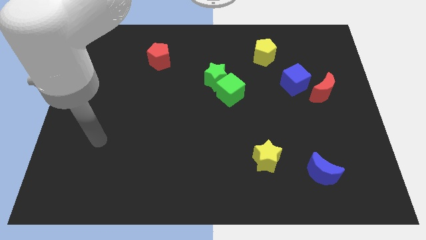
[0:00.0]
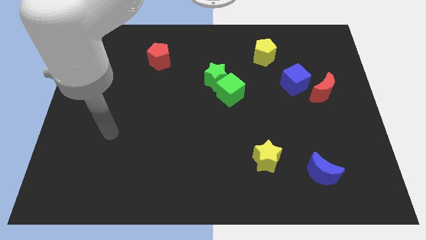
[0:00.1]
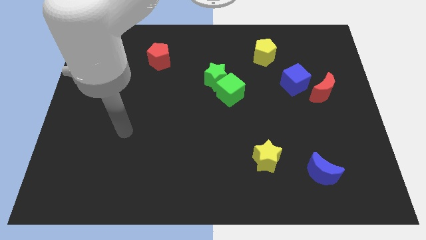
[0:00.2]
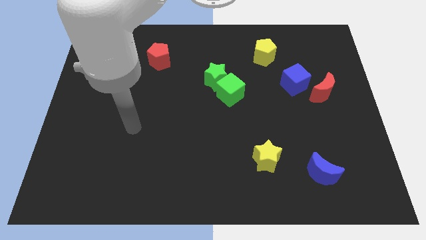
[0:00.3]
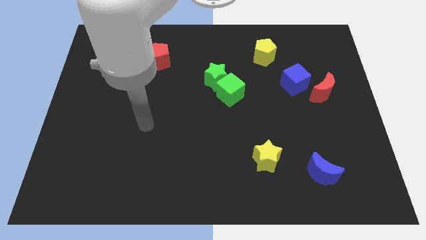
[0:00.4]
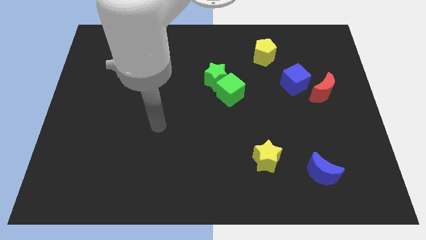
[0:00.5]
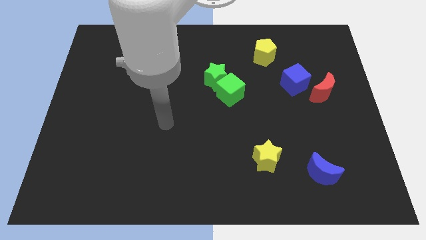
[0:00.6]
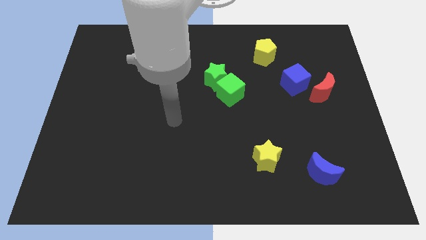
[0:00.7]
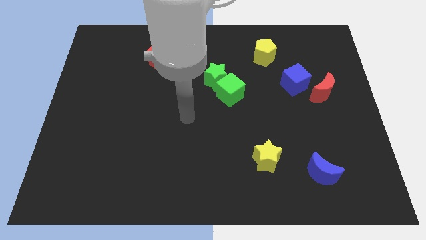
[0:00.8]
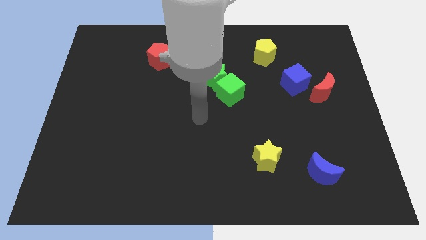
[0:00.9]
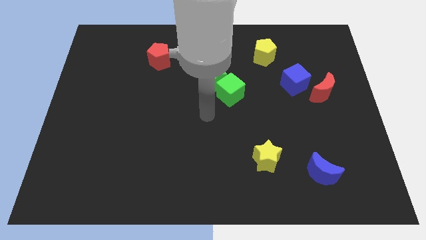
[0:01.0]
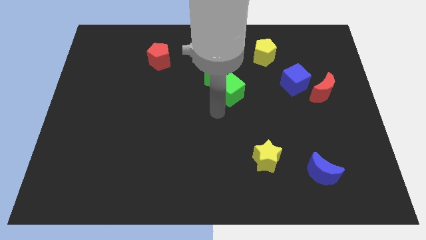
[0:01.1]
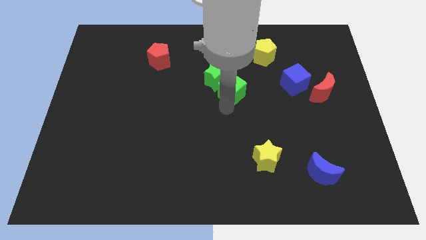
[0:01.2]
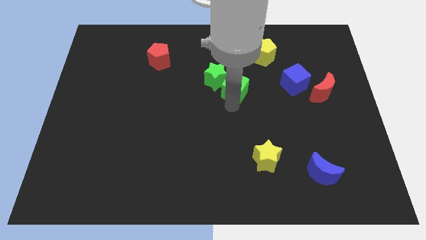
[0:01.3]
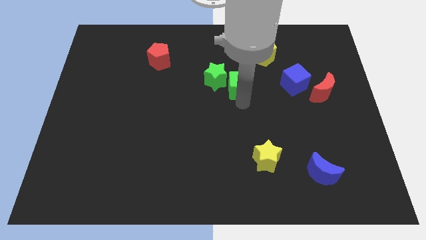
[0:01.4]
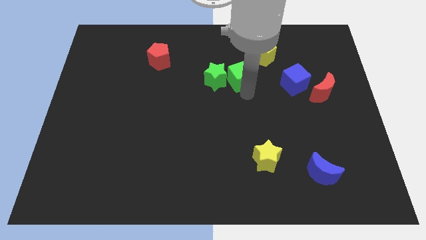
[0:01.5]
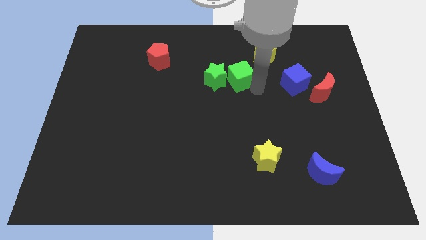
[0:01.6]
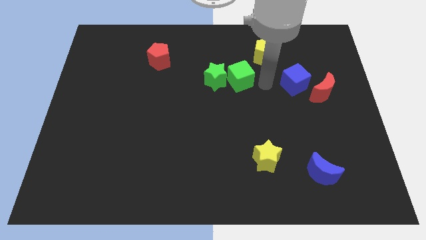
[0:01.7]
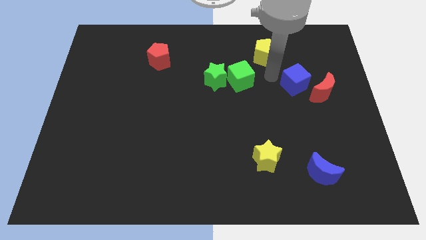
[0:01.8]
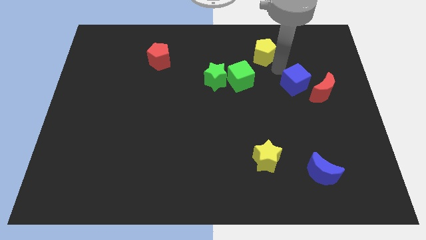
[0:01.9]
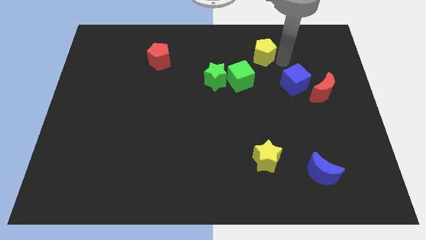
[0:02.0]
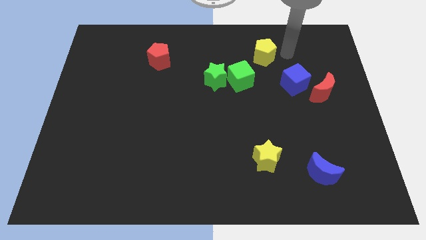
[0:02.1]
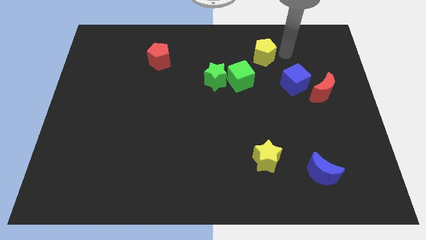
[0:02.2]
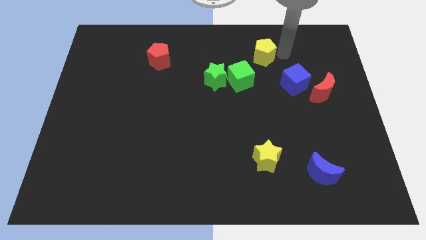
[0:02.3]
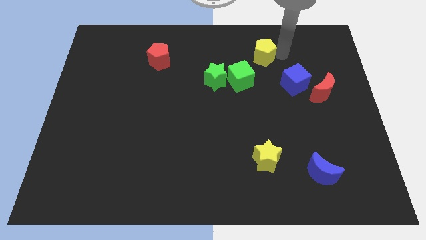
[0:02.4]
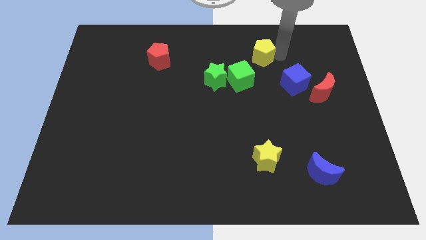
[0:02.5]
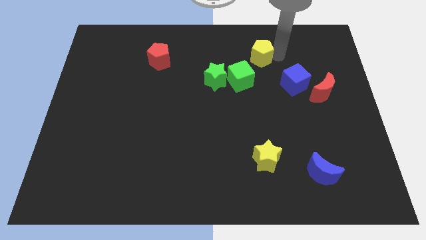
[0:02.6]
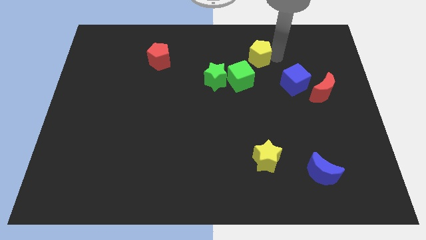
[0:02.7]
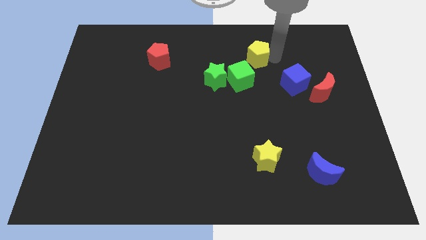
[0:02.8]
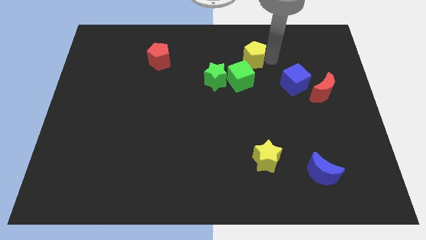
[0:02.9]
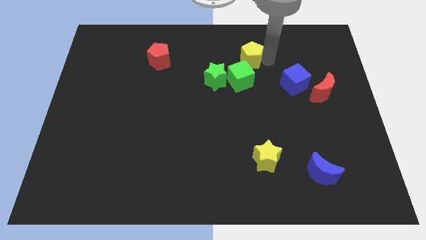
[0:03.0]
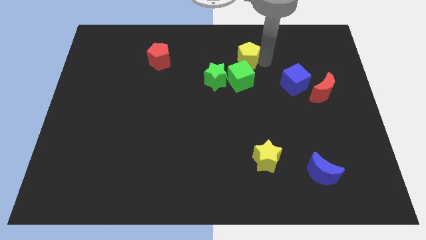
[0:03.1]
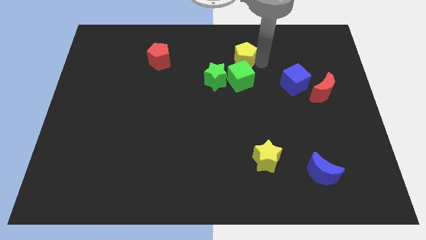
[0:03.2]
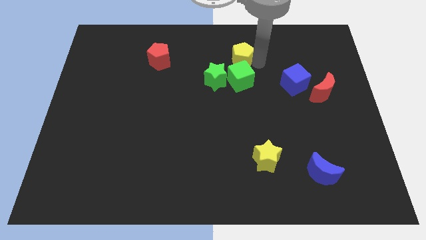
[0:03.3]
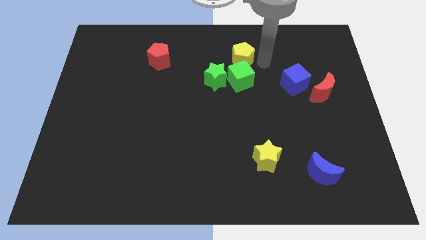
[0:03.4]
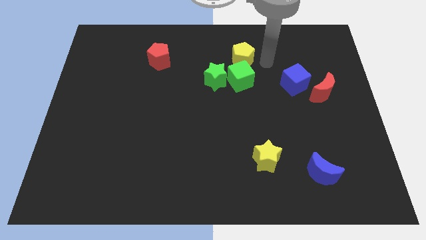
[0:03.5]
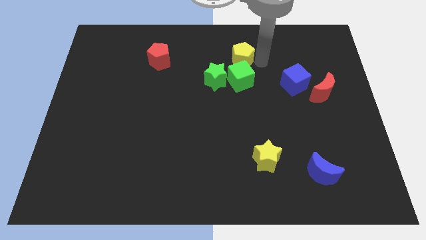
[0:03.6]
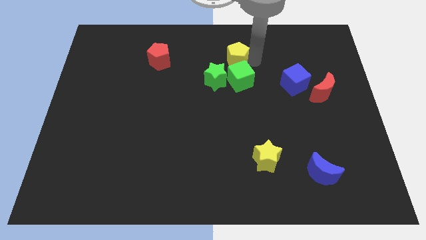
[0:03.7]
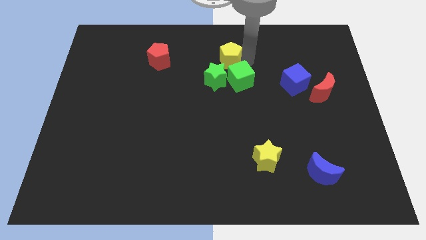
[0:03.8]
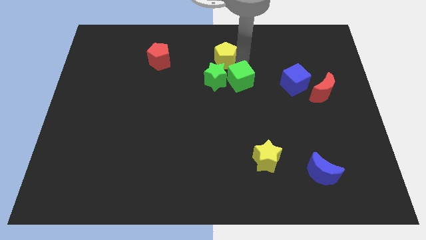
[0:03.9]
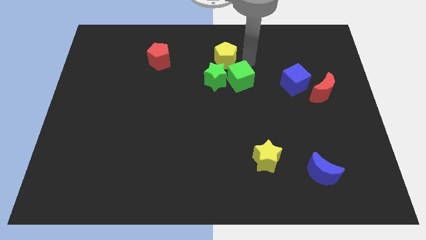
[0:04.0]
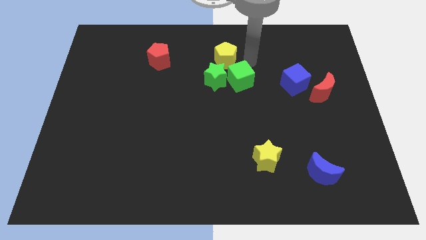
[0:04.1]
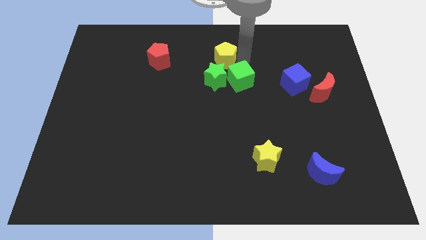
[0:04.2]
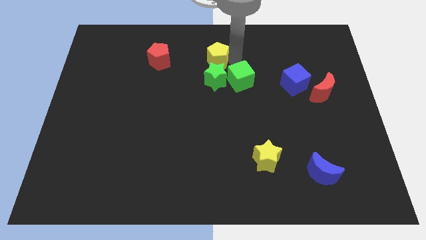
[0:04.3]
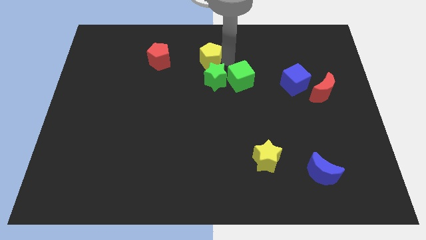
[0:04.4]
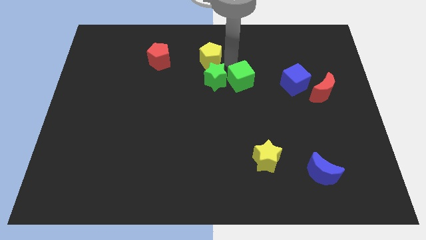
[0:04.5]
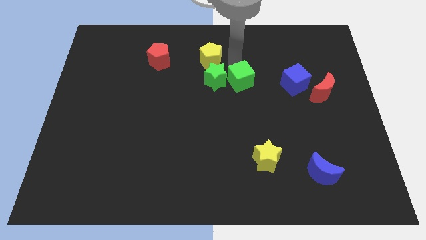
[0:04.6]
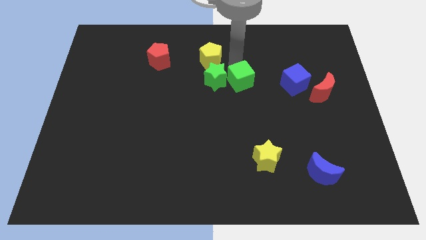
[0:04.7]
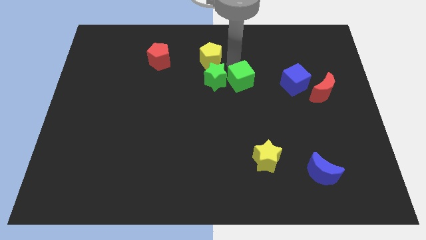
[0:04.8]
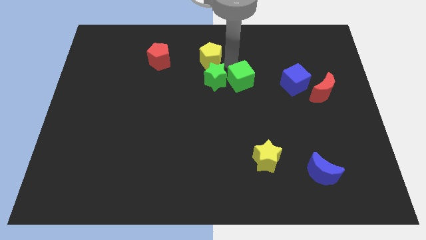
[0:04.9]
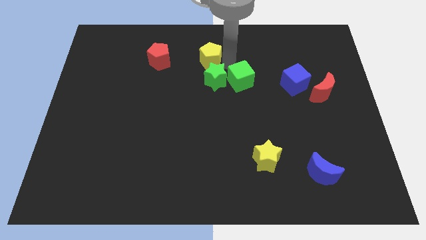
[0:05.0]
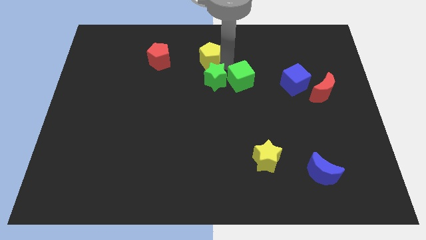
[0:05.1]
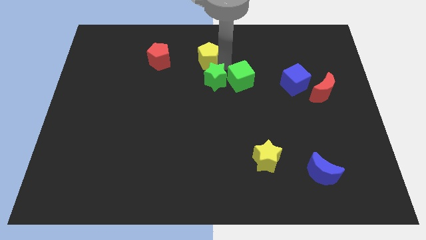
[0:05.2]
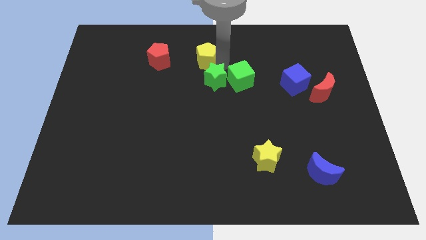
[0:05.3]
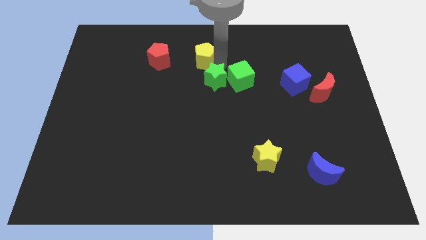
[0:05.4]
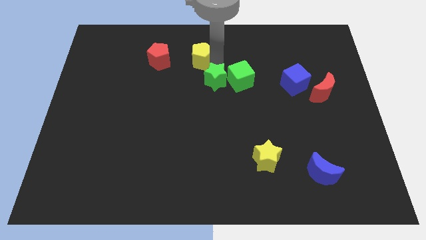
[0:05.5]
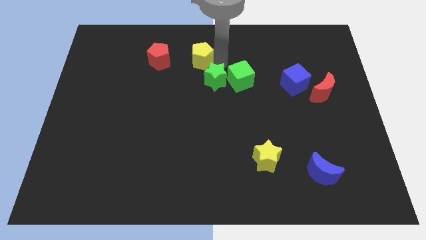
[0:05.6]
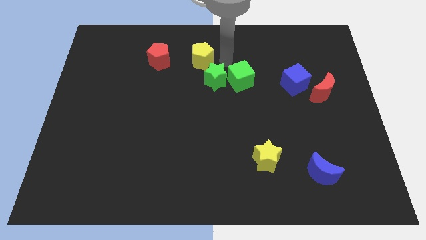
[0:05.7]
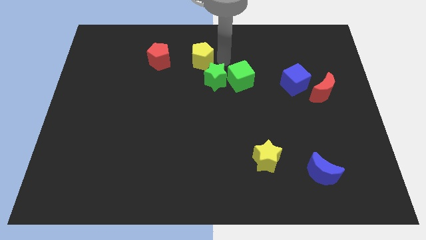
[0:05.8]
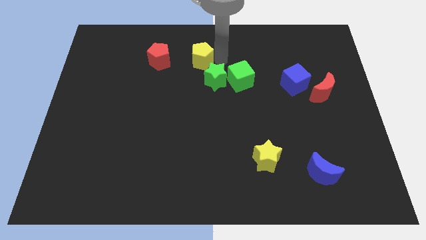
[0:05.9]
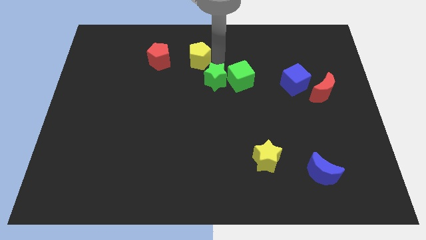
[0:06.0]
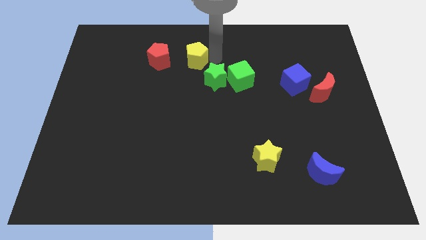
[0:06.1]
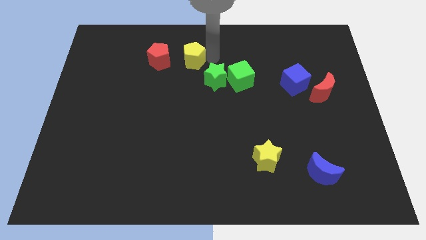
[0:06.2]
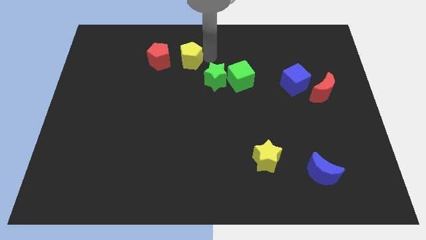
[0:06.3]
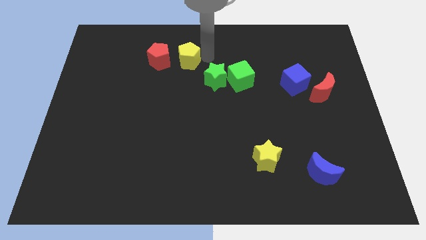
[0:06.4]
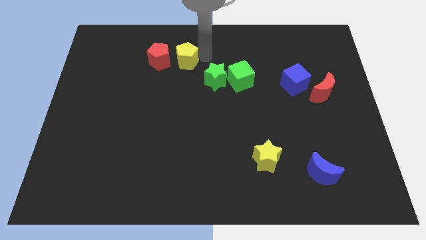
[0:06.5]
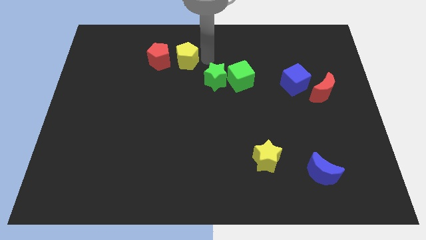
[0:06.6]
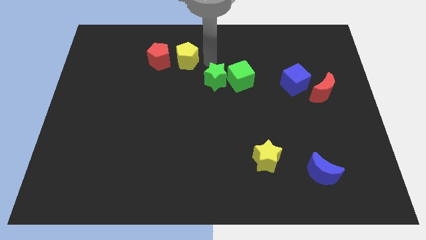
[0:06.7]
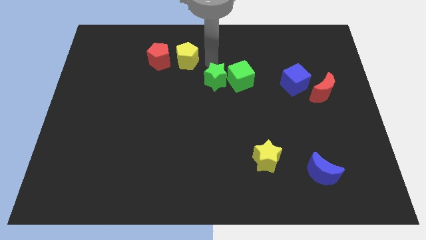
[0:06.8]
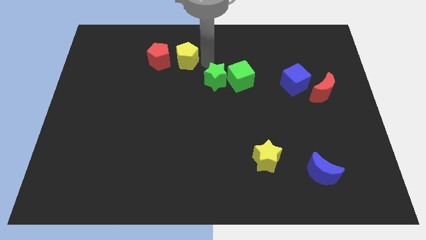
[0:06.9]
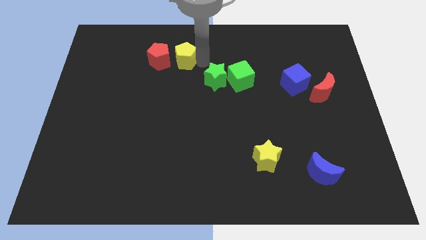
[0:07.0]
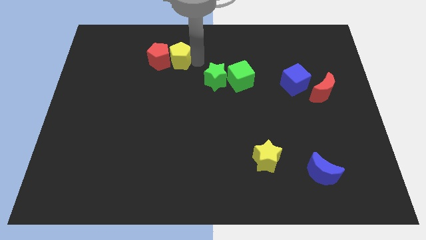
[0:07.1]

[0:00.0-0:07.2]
move the yellow pentagon close to the red pentagon
